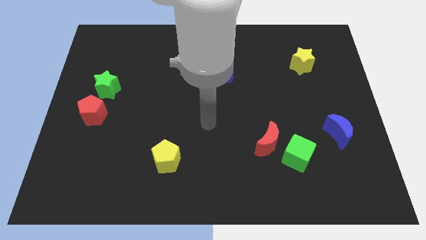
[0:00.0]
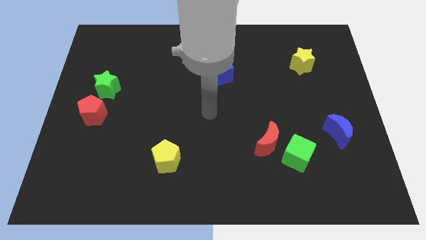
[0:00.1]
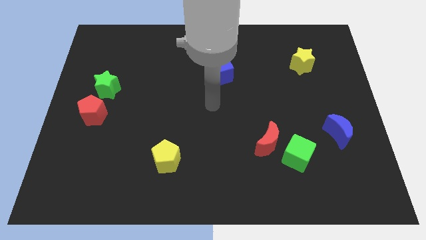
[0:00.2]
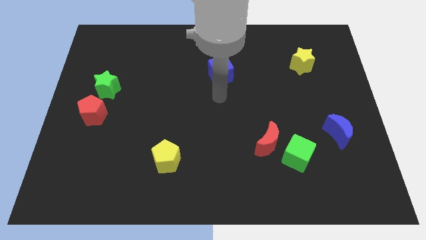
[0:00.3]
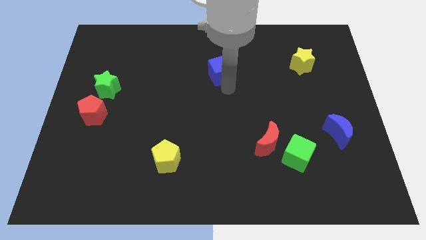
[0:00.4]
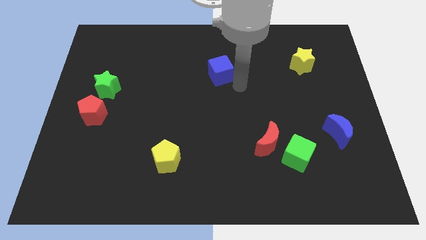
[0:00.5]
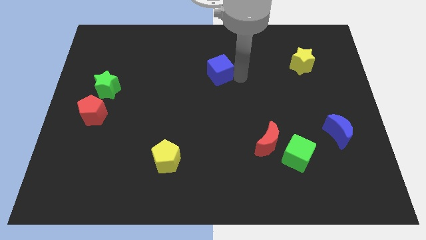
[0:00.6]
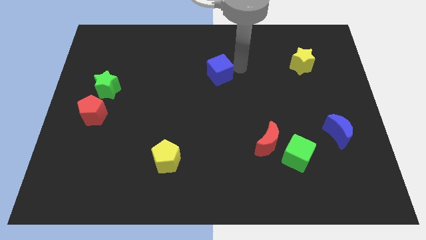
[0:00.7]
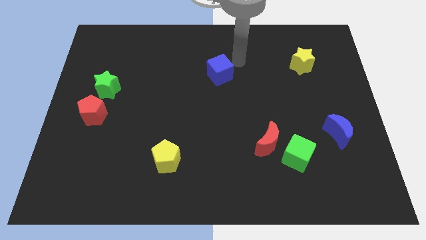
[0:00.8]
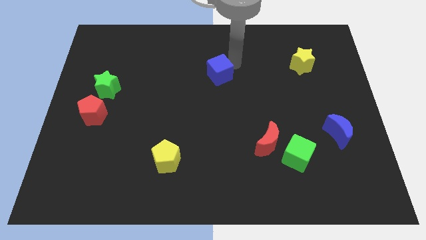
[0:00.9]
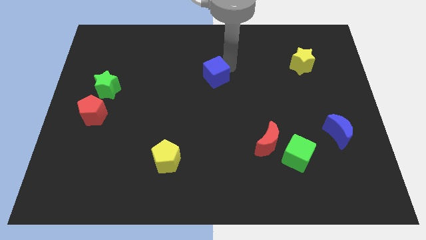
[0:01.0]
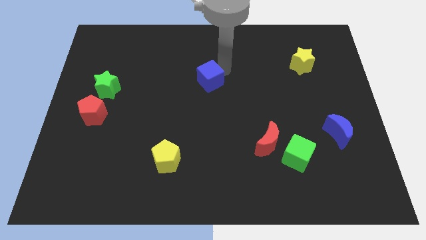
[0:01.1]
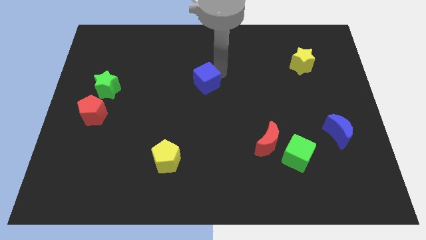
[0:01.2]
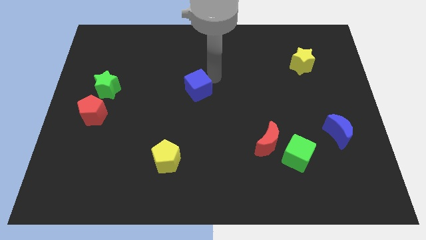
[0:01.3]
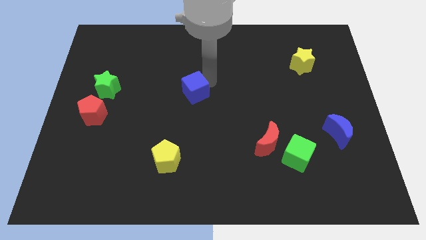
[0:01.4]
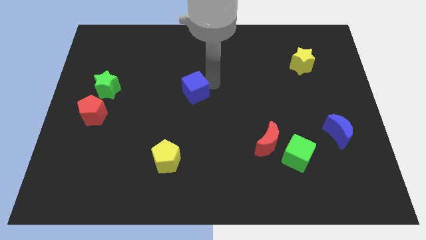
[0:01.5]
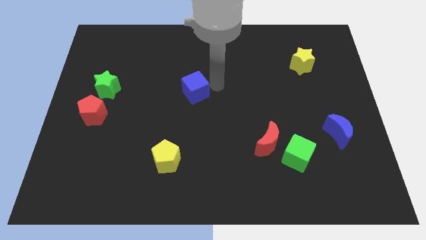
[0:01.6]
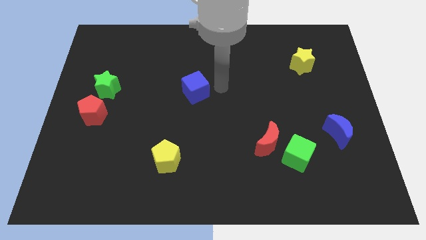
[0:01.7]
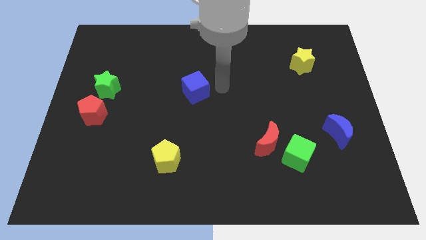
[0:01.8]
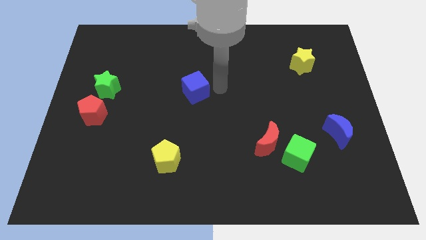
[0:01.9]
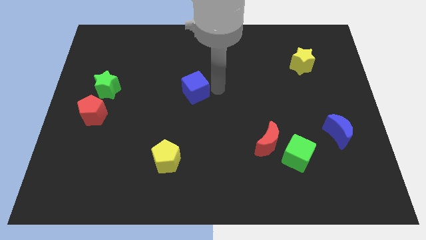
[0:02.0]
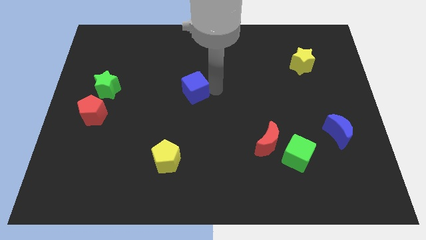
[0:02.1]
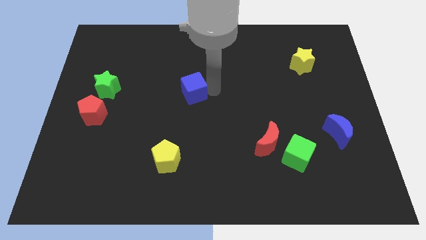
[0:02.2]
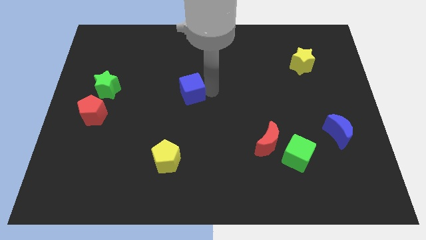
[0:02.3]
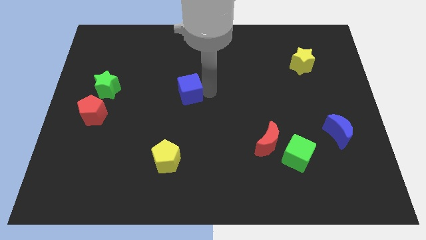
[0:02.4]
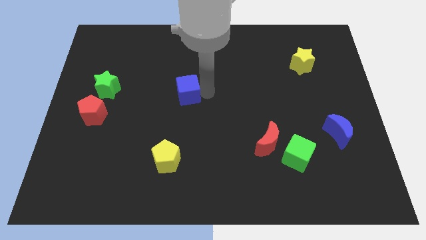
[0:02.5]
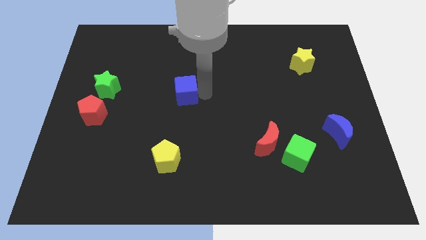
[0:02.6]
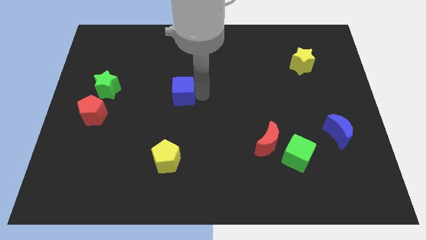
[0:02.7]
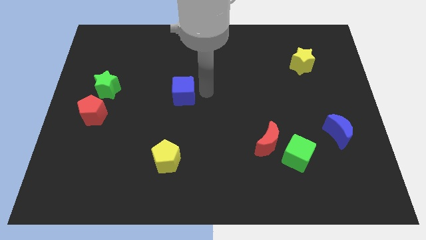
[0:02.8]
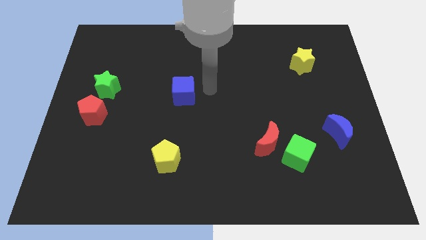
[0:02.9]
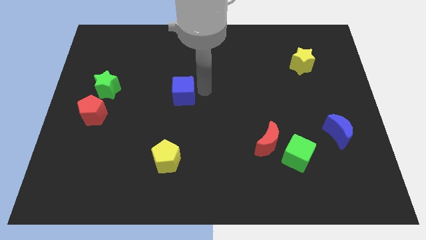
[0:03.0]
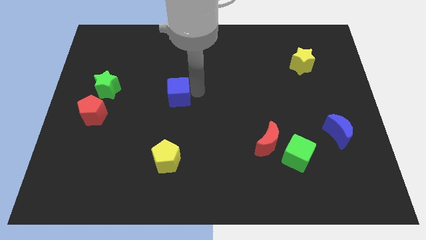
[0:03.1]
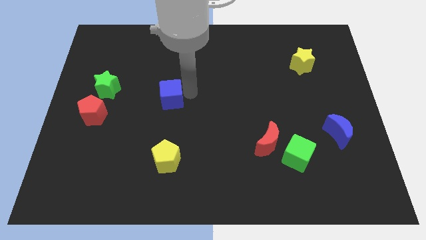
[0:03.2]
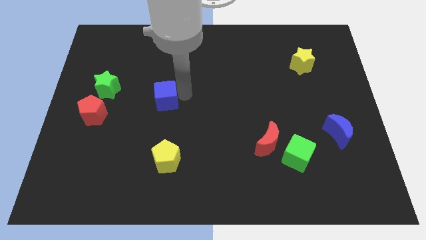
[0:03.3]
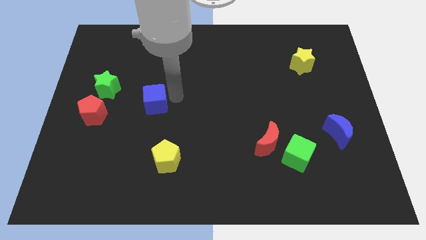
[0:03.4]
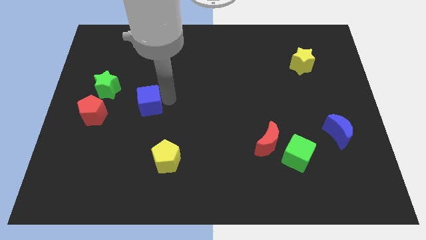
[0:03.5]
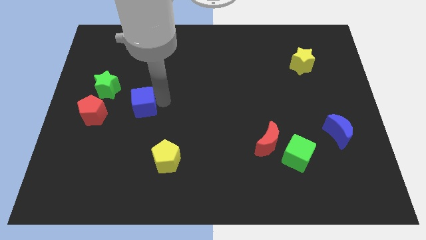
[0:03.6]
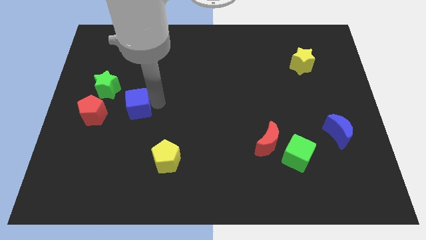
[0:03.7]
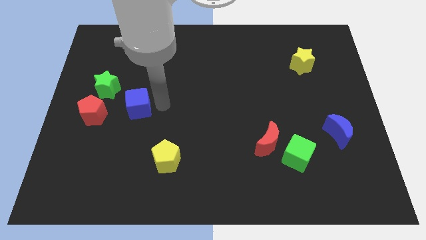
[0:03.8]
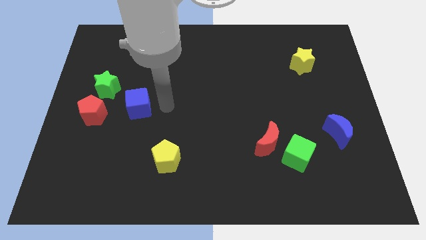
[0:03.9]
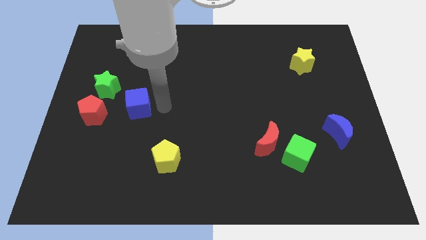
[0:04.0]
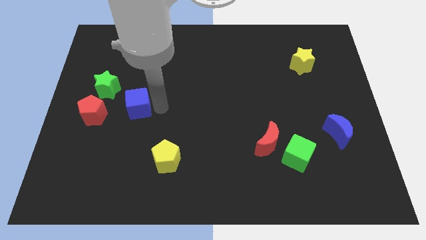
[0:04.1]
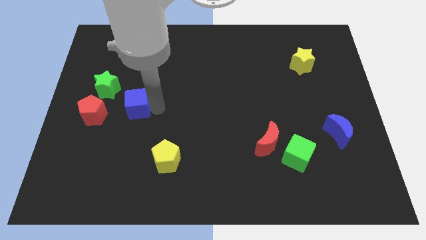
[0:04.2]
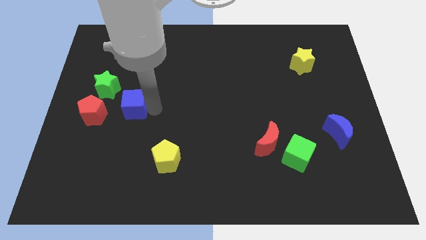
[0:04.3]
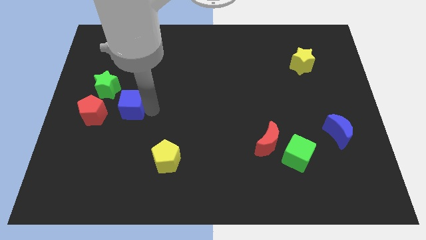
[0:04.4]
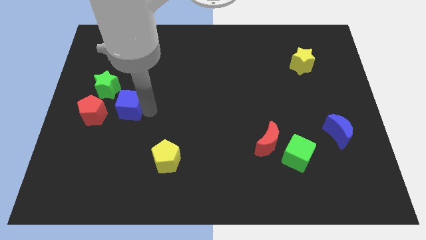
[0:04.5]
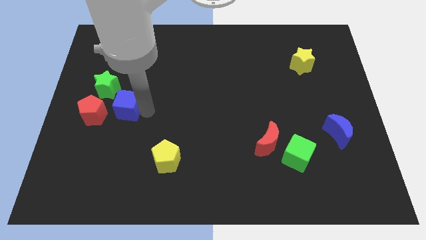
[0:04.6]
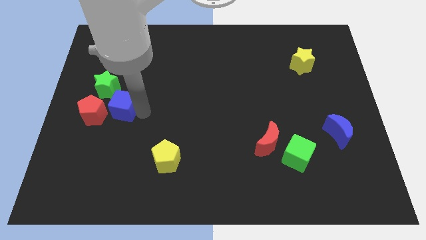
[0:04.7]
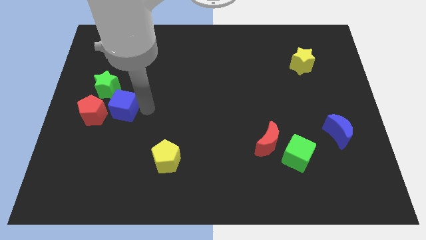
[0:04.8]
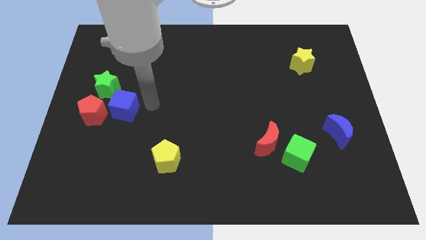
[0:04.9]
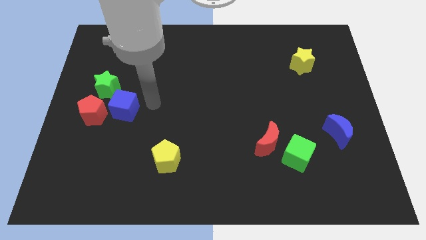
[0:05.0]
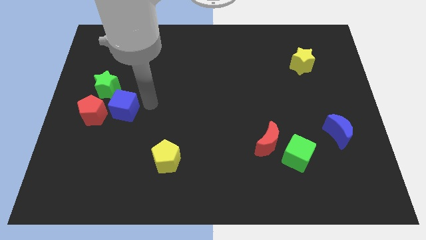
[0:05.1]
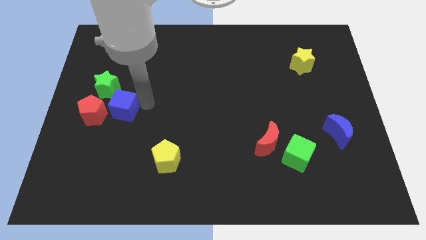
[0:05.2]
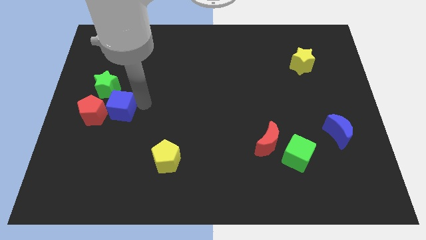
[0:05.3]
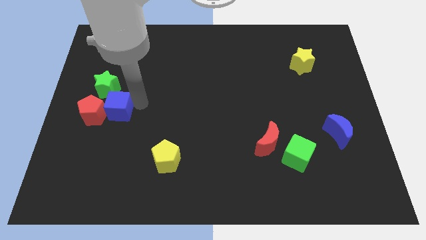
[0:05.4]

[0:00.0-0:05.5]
move the blue cube close to the red pentagon

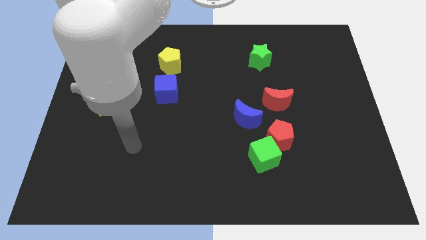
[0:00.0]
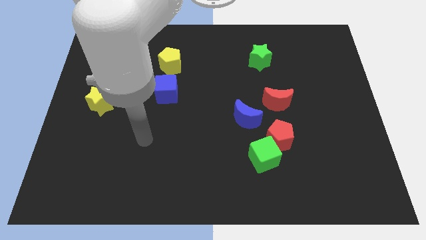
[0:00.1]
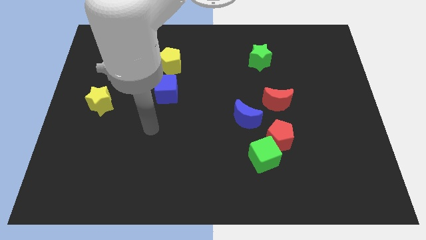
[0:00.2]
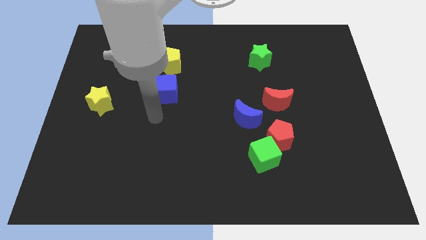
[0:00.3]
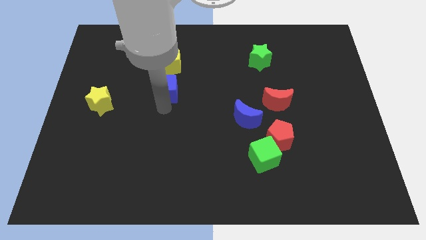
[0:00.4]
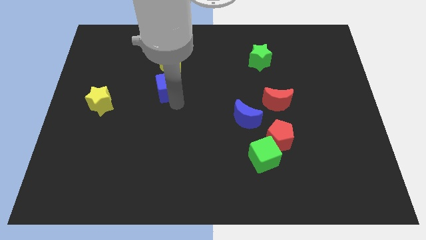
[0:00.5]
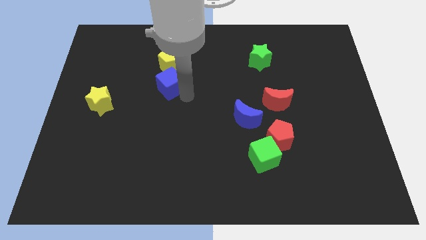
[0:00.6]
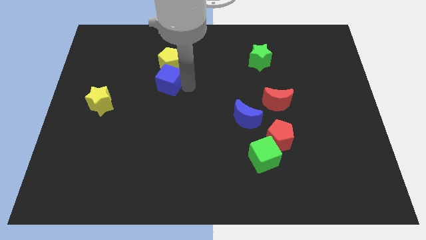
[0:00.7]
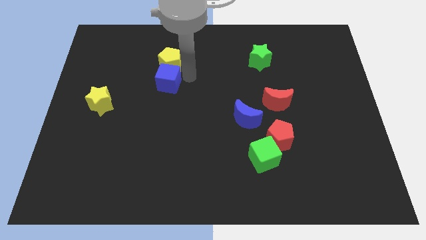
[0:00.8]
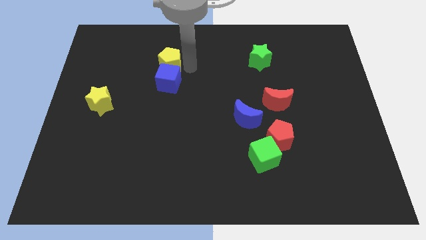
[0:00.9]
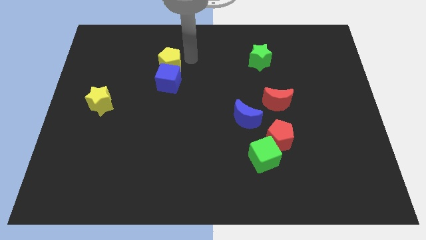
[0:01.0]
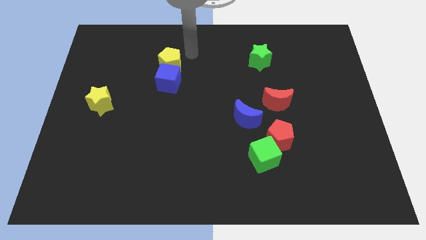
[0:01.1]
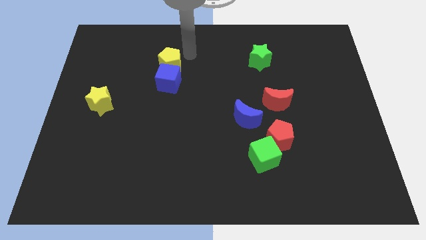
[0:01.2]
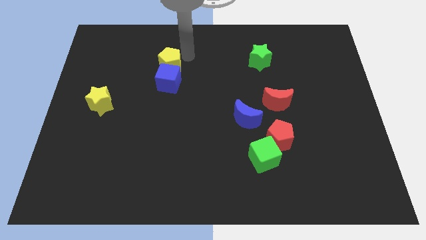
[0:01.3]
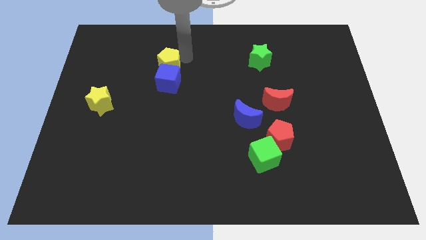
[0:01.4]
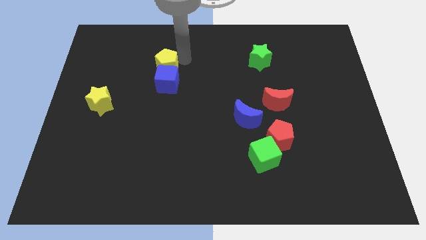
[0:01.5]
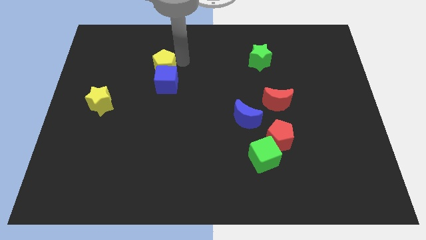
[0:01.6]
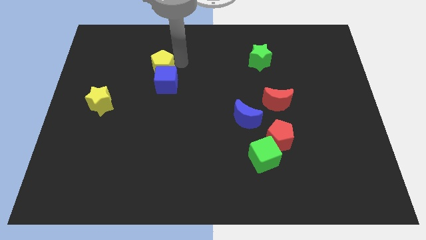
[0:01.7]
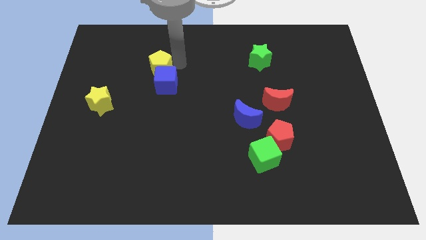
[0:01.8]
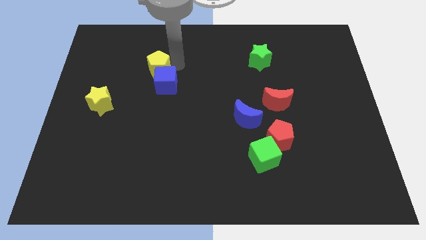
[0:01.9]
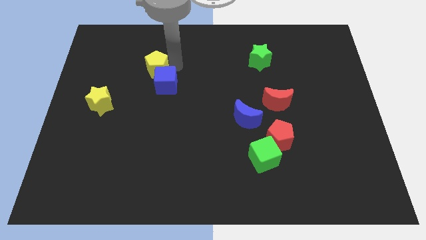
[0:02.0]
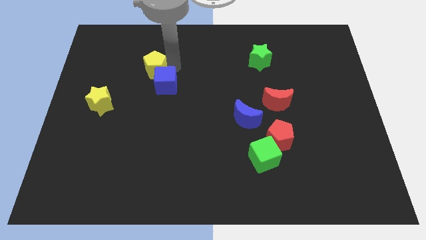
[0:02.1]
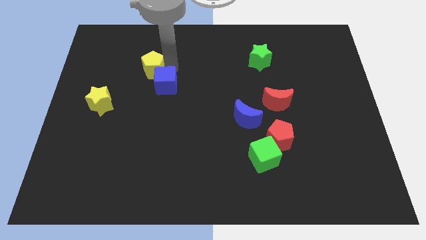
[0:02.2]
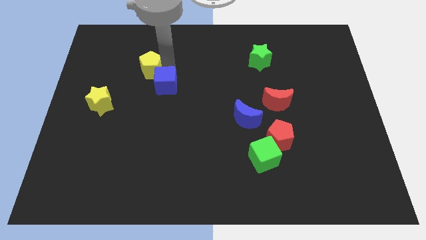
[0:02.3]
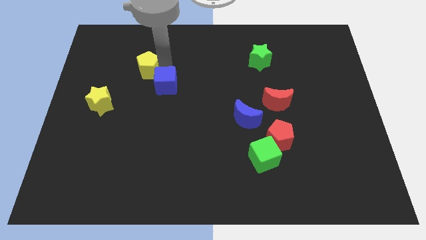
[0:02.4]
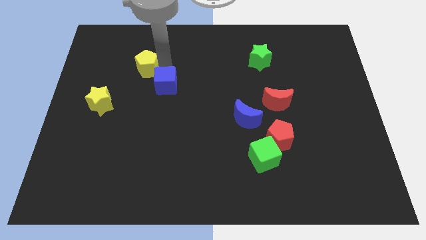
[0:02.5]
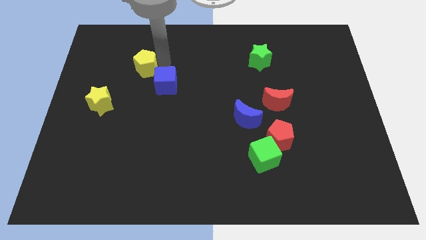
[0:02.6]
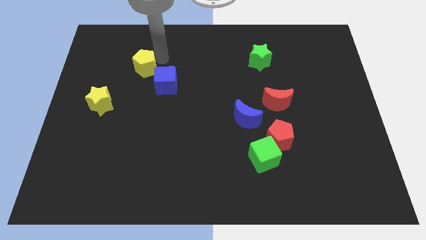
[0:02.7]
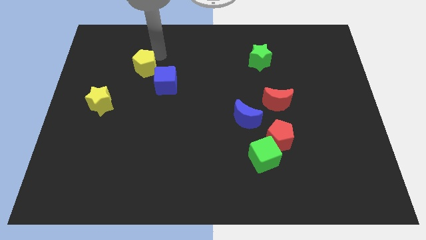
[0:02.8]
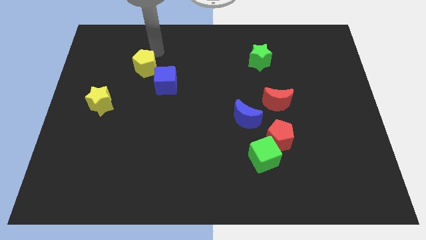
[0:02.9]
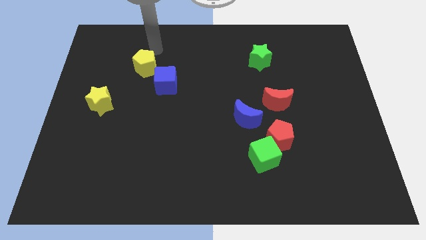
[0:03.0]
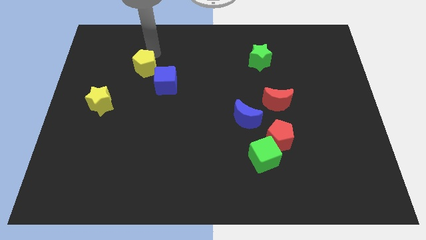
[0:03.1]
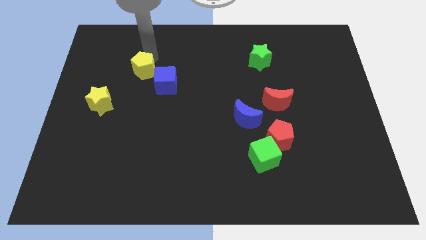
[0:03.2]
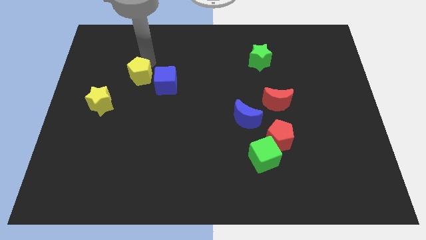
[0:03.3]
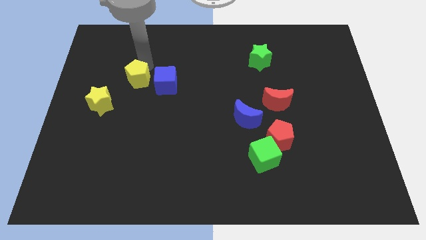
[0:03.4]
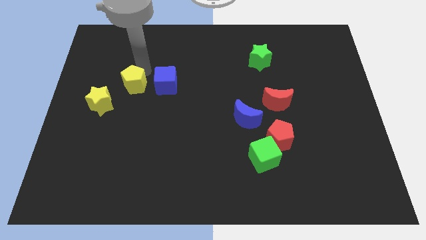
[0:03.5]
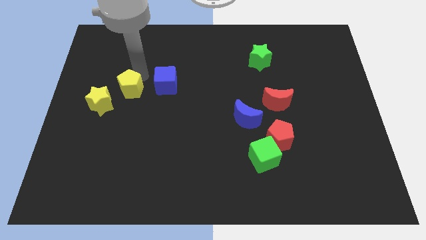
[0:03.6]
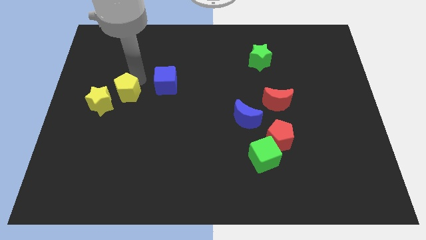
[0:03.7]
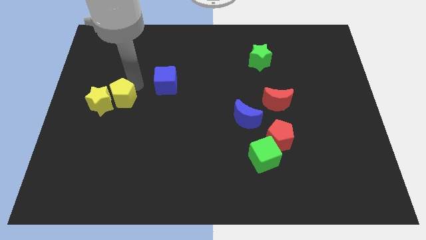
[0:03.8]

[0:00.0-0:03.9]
move the yellow pentagon to the yellow star
